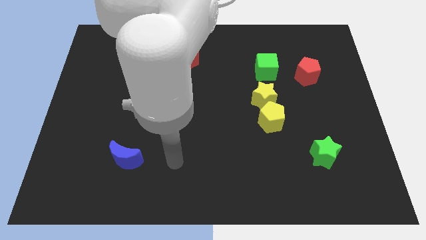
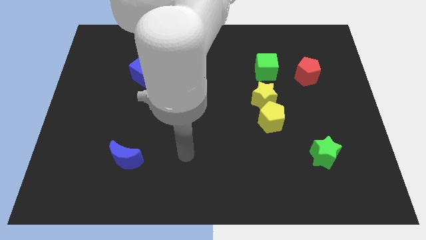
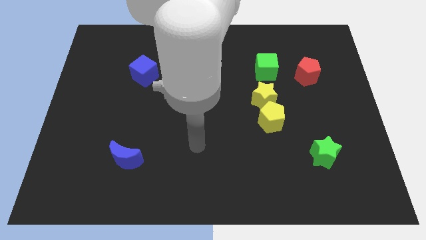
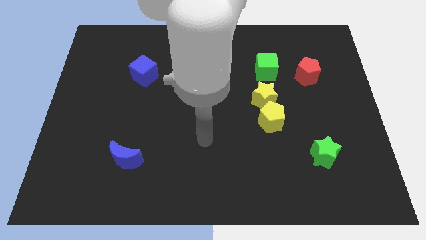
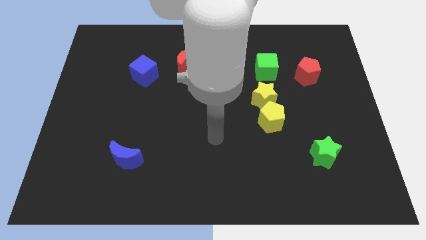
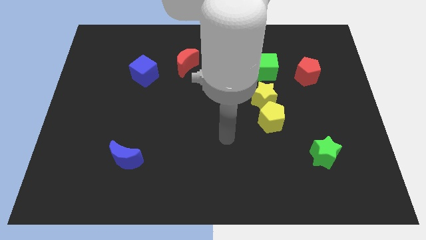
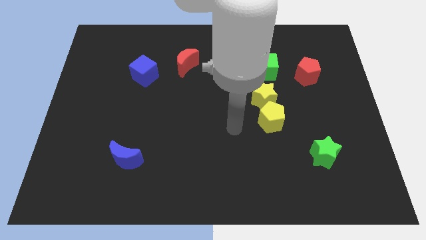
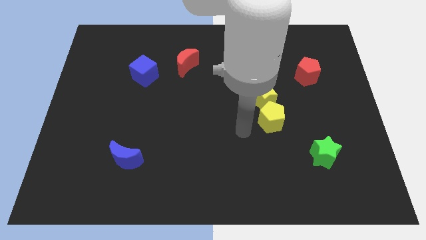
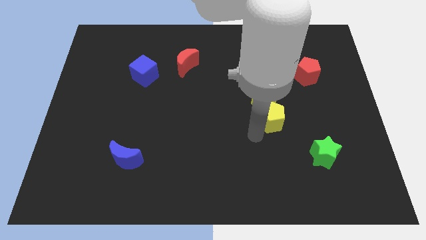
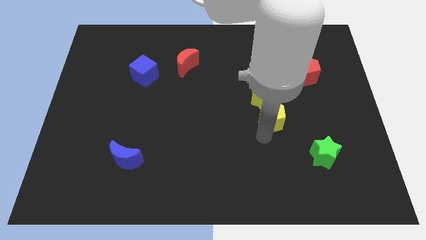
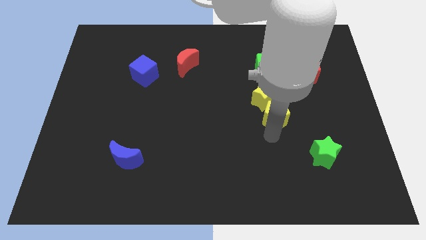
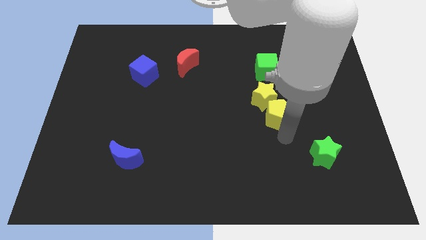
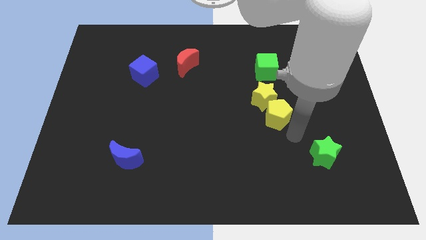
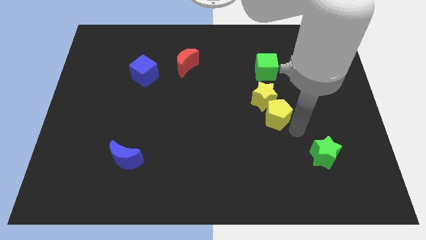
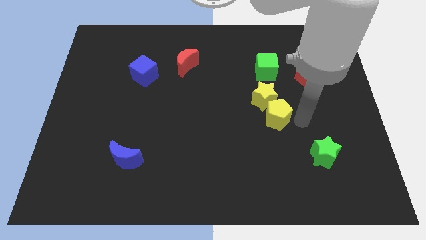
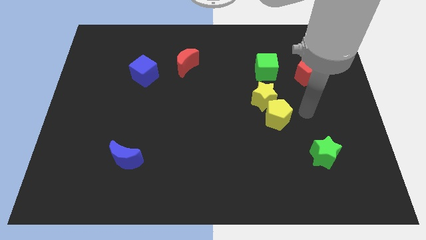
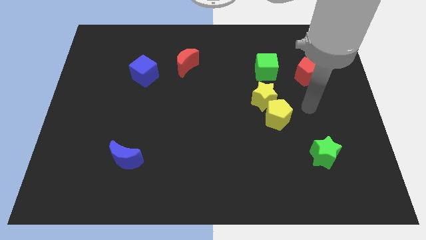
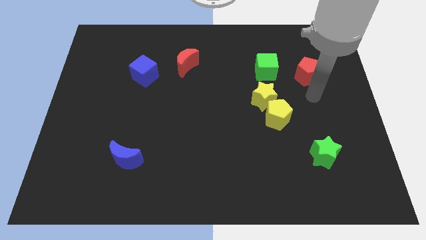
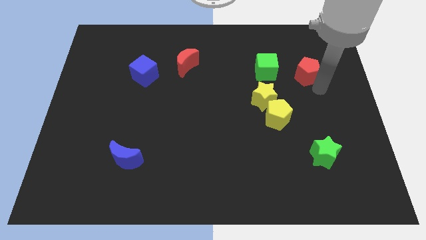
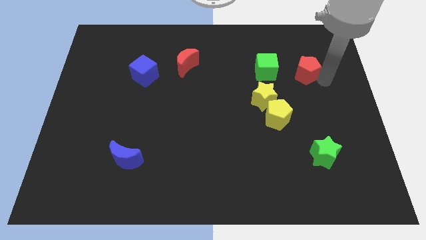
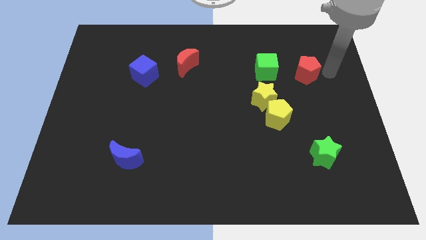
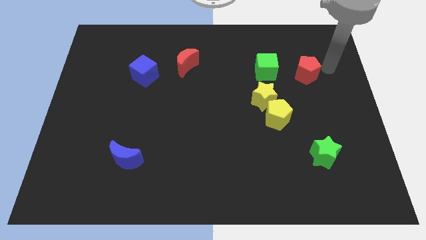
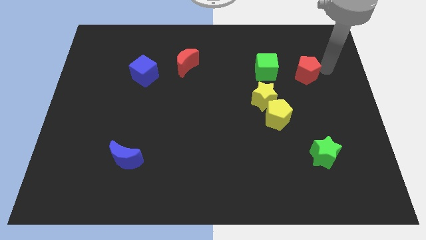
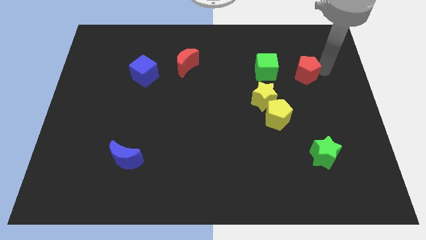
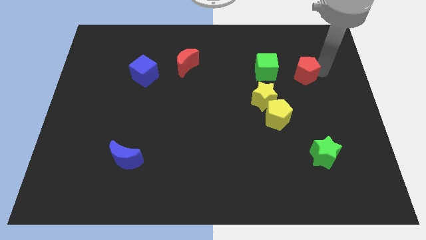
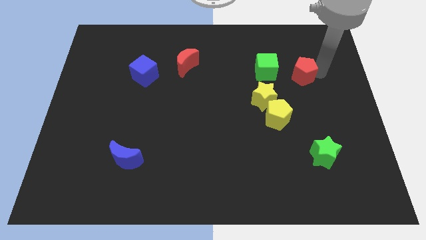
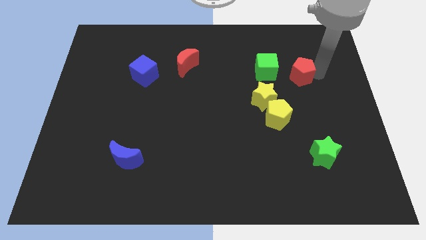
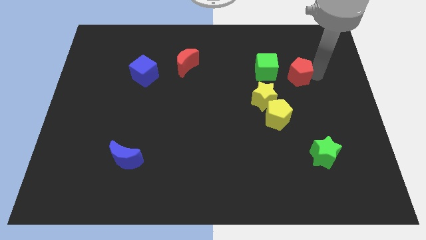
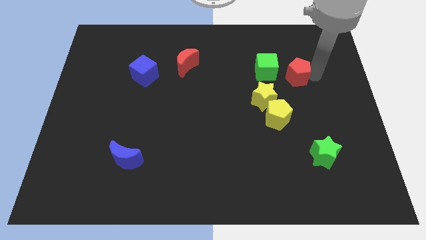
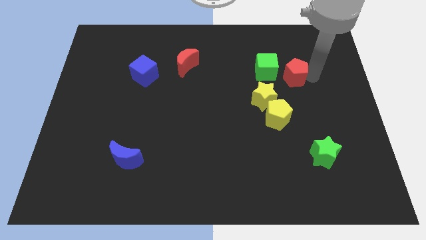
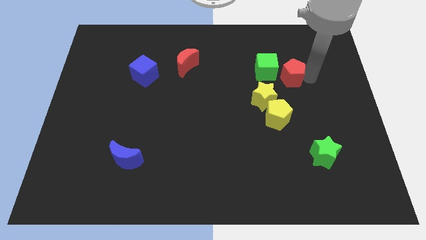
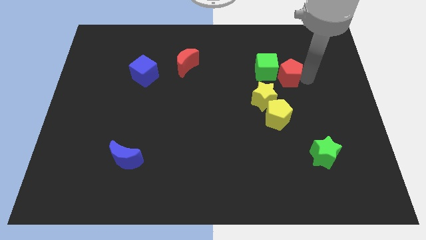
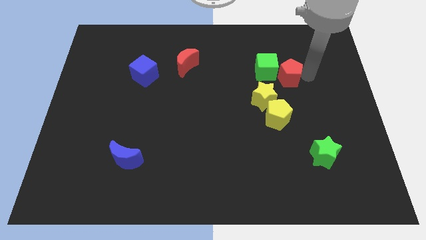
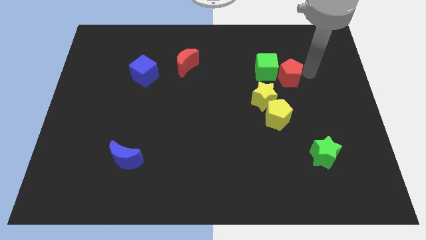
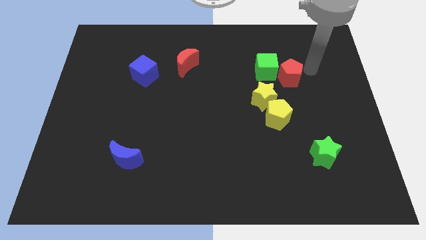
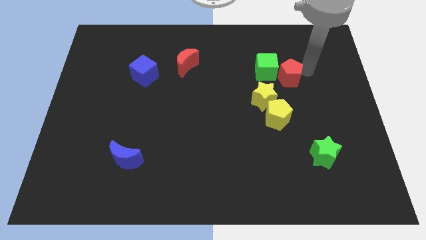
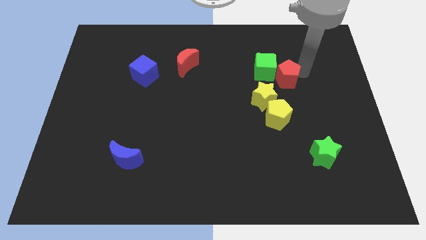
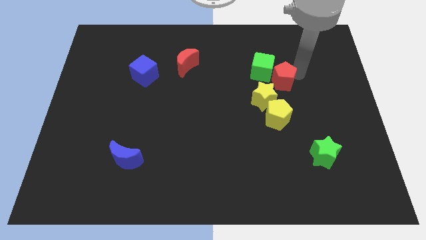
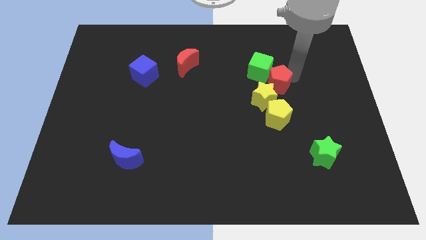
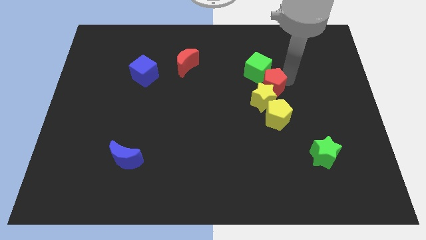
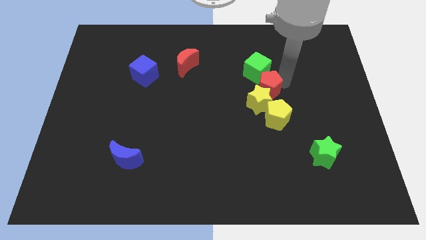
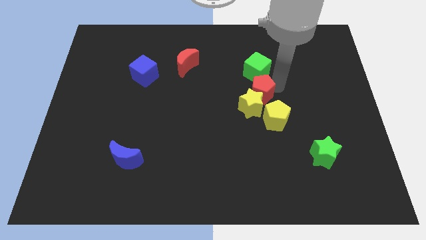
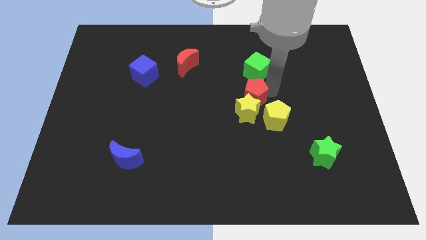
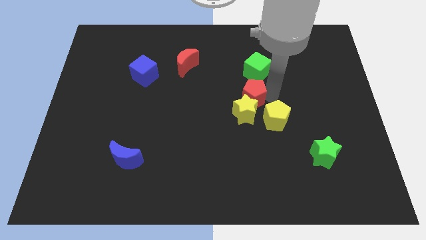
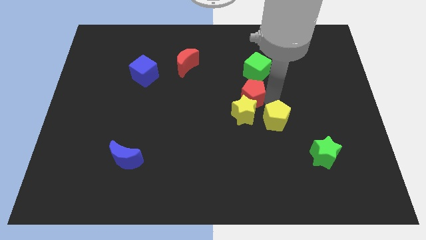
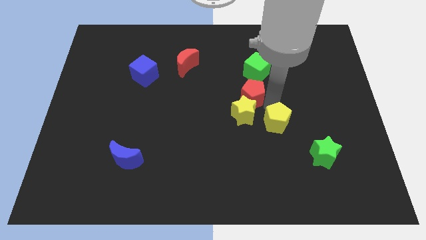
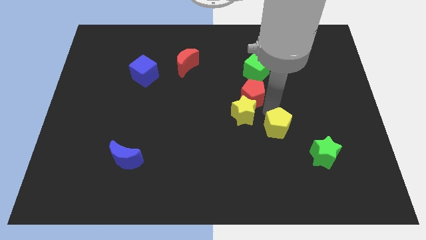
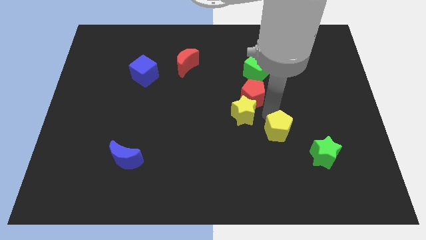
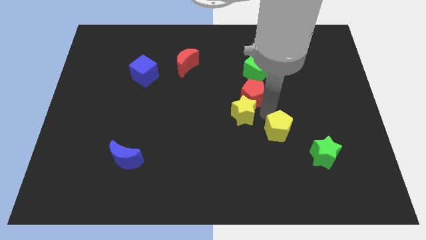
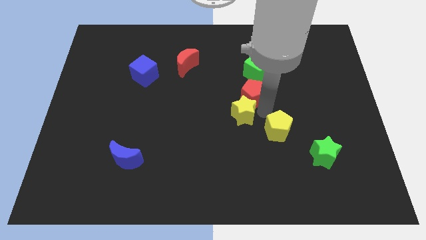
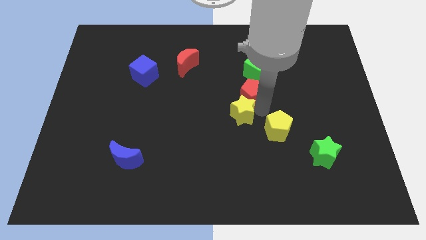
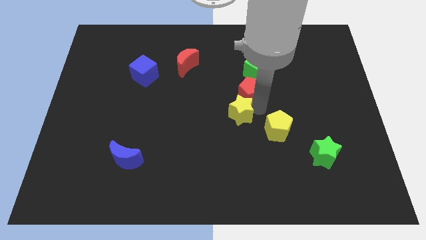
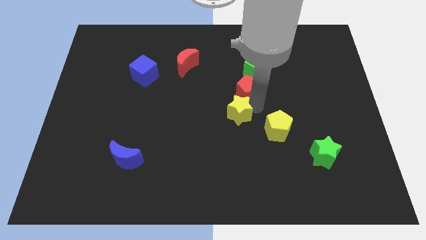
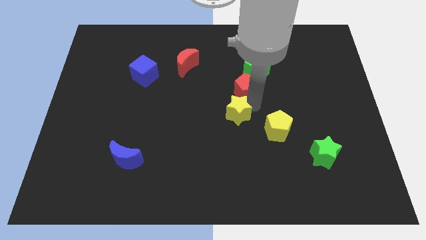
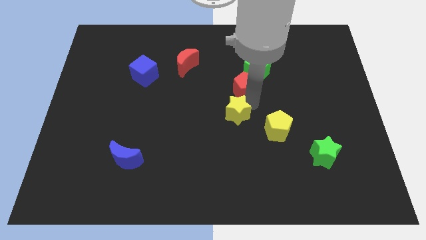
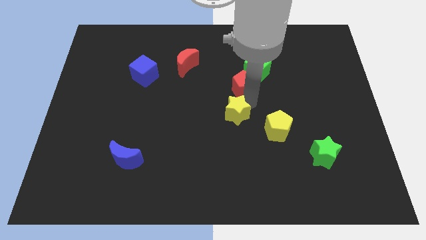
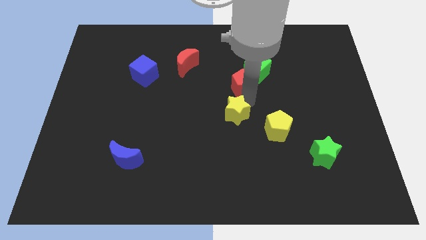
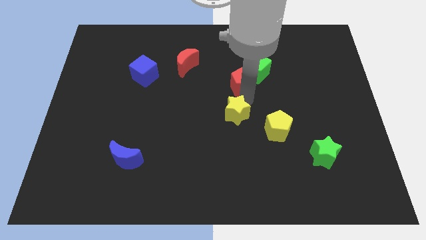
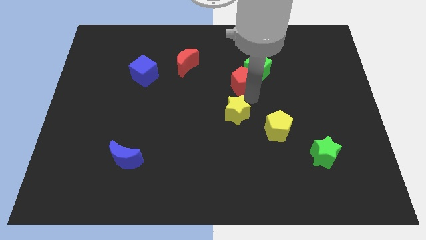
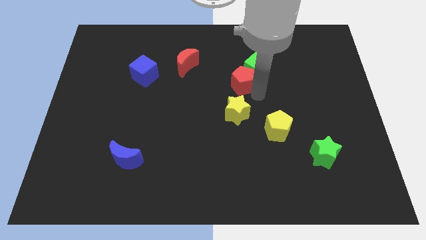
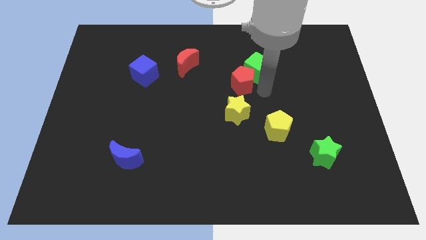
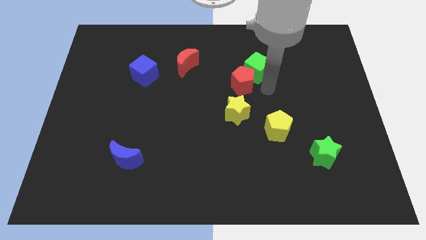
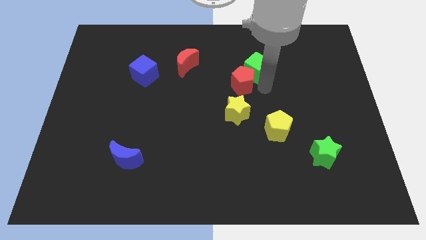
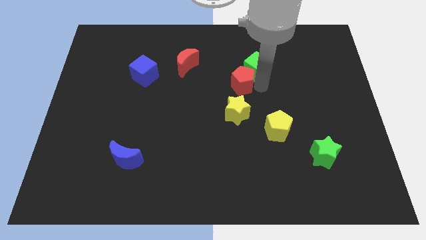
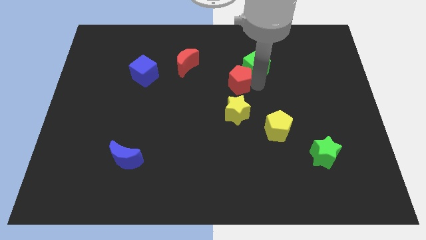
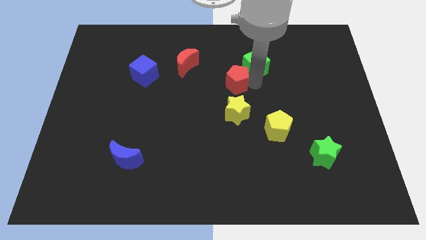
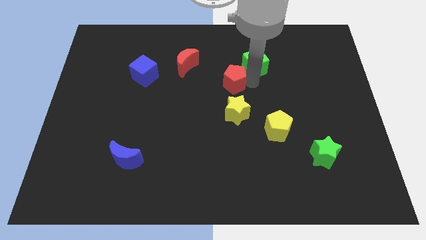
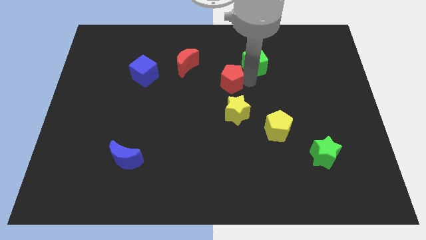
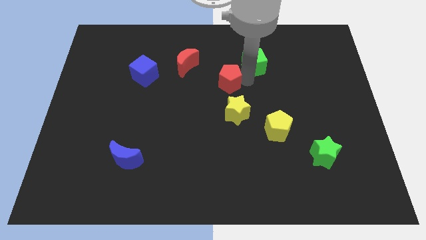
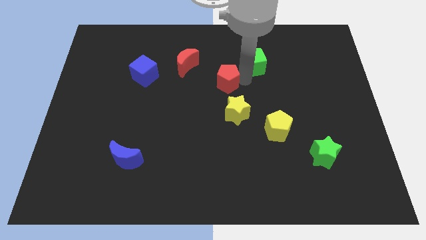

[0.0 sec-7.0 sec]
push the red pentagon to the left

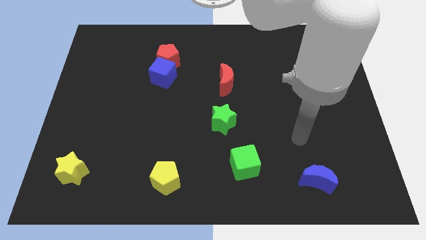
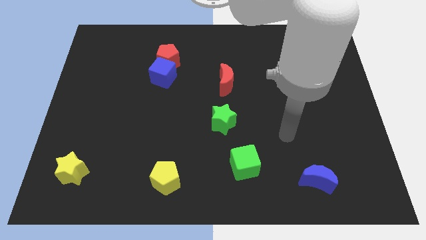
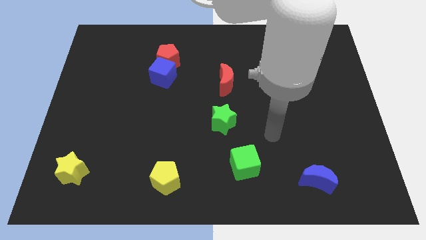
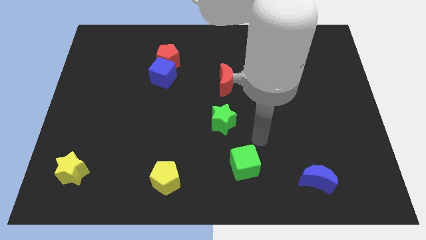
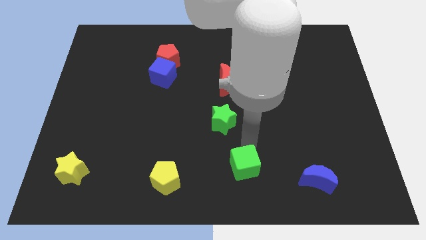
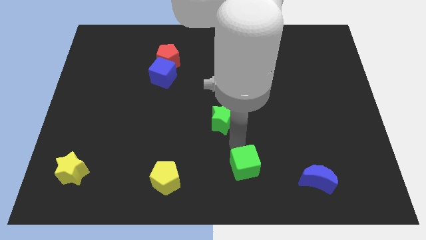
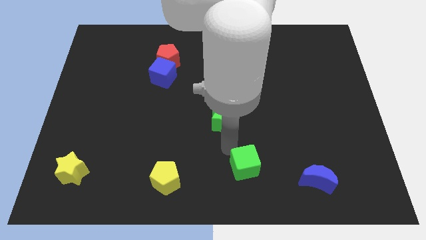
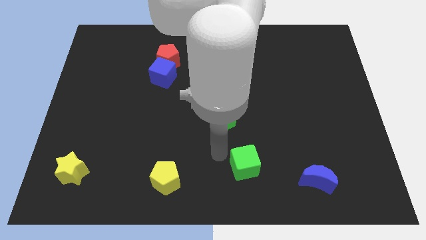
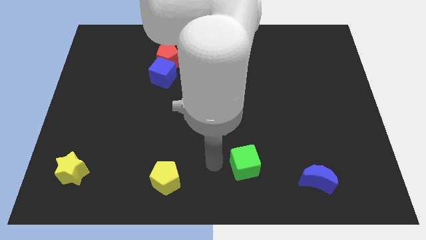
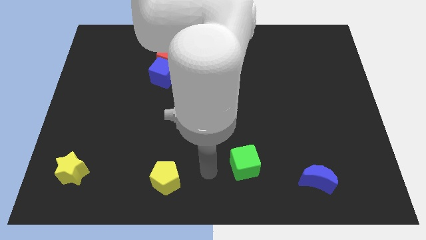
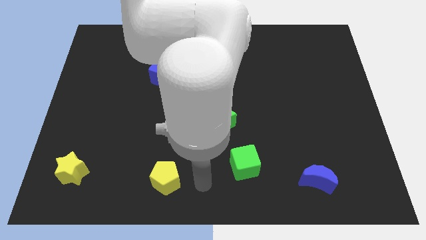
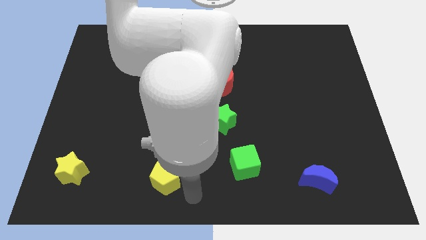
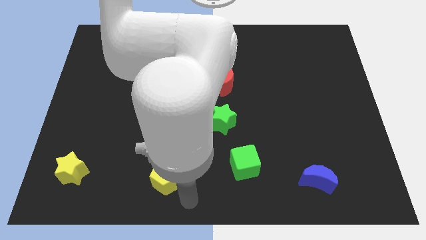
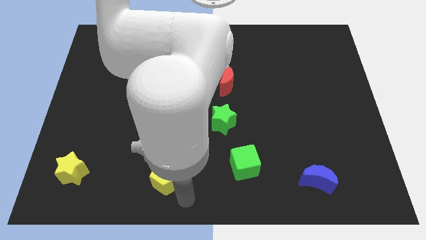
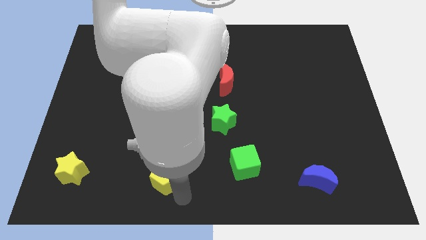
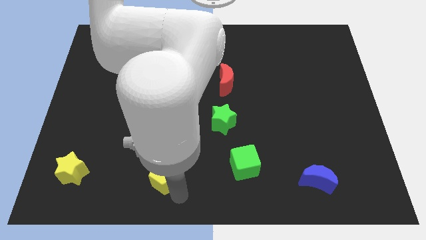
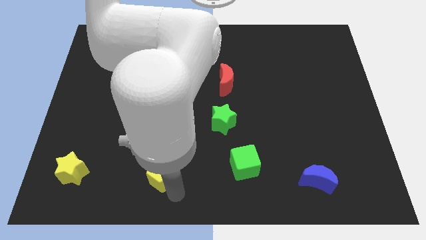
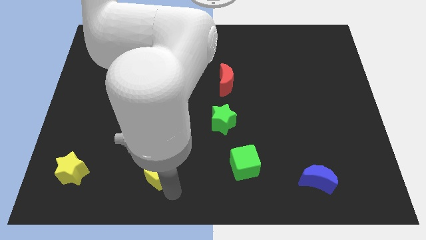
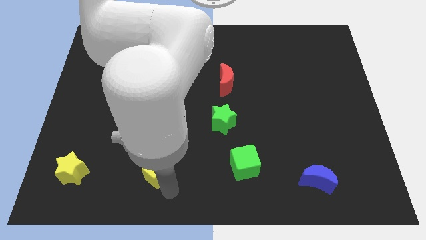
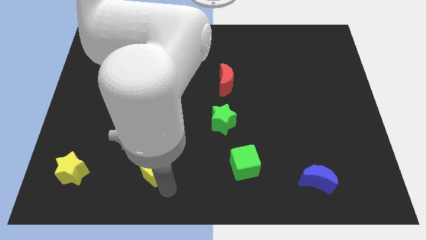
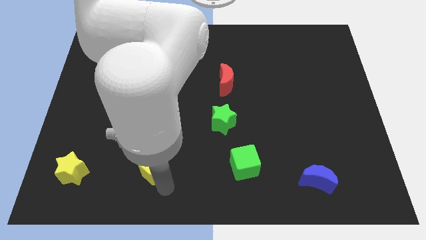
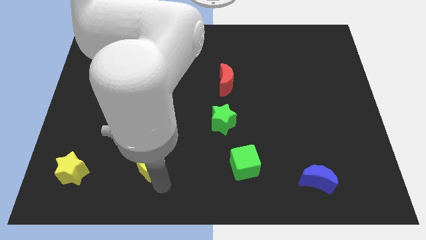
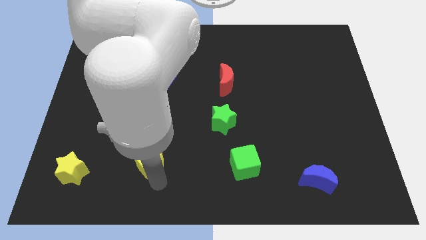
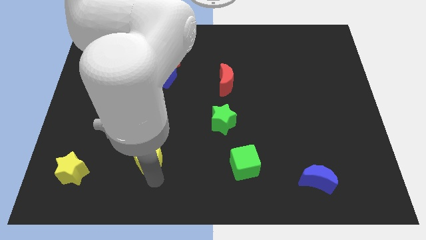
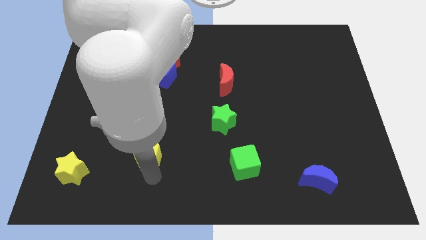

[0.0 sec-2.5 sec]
slightly push the yellow pentagon upwards and left diagonally
